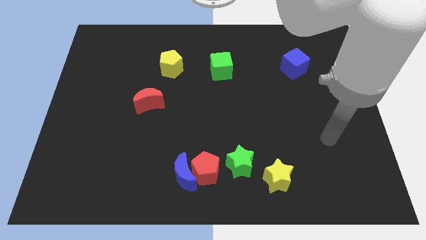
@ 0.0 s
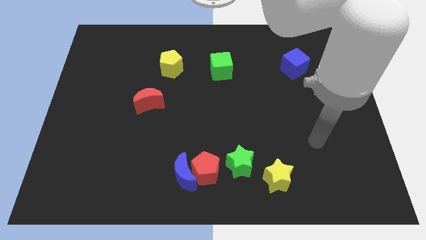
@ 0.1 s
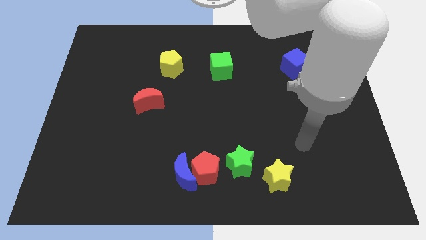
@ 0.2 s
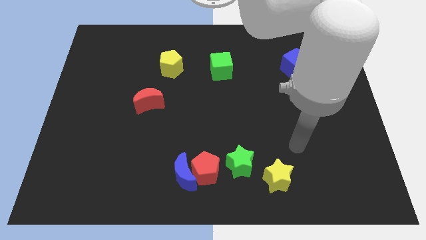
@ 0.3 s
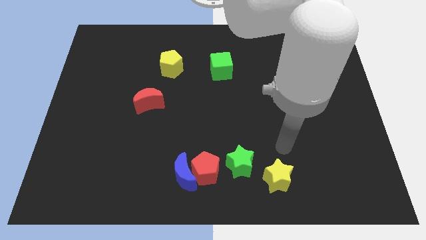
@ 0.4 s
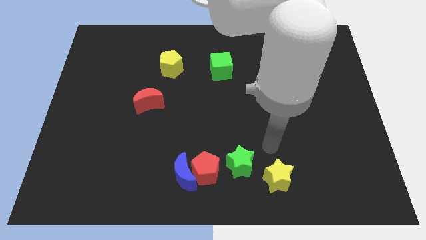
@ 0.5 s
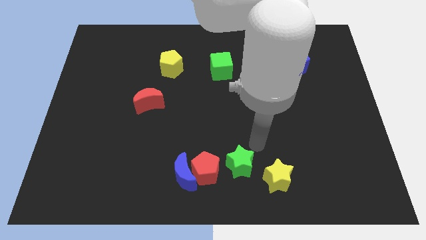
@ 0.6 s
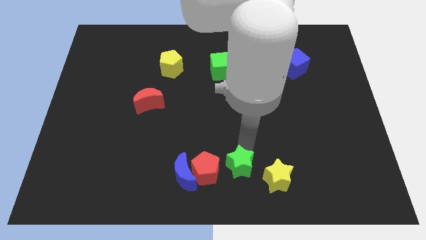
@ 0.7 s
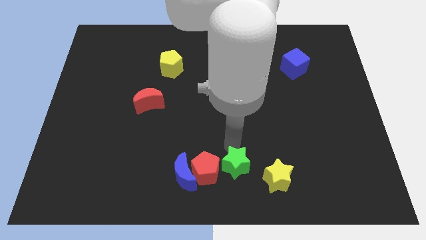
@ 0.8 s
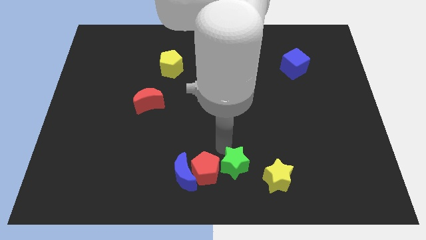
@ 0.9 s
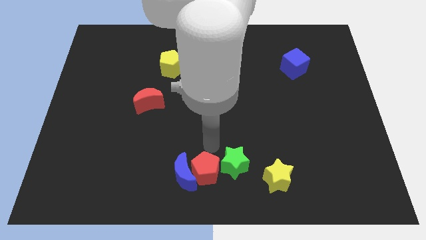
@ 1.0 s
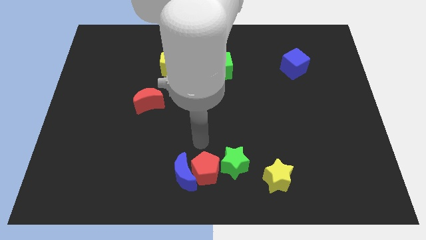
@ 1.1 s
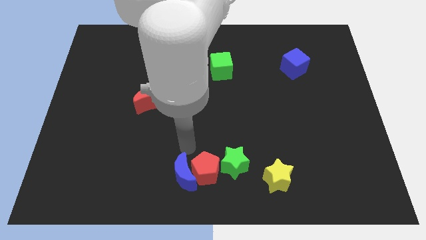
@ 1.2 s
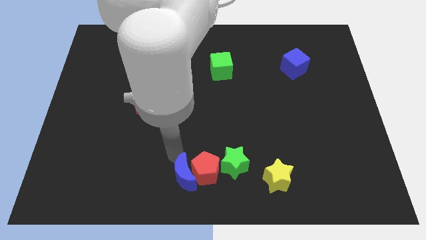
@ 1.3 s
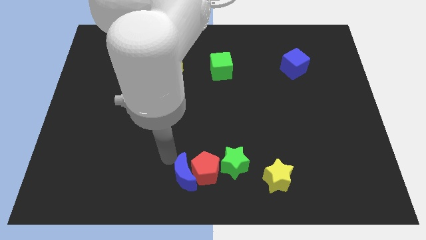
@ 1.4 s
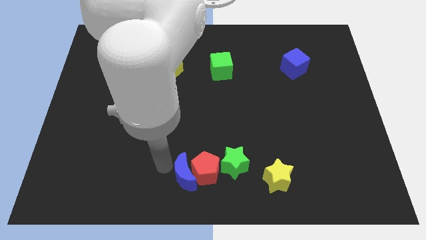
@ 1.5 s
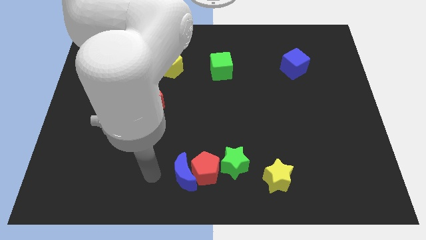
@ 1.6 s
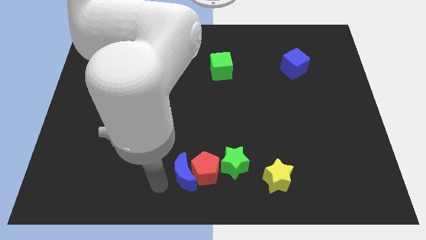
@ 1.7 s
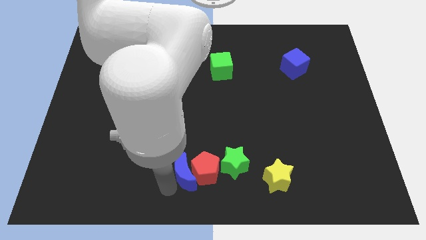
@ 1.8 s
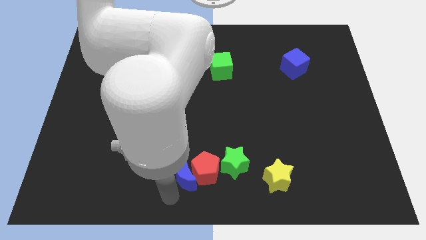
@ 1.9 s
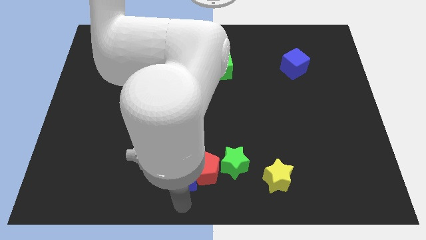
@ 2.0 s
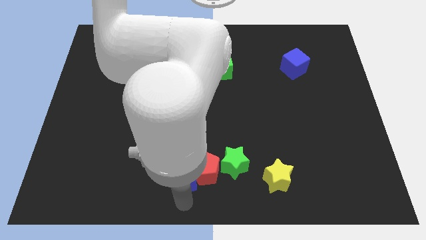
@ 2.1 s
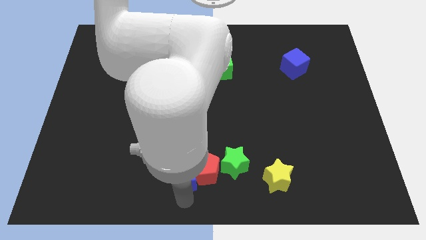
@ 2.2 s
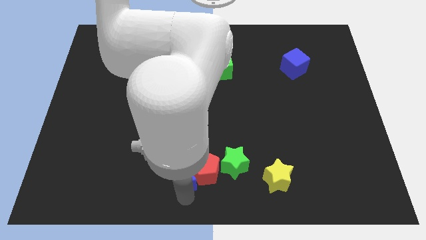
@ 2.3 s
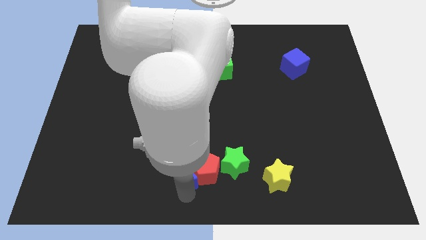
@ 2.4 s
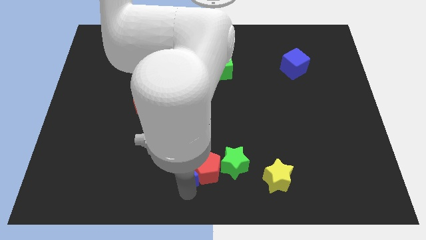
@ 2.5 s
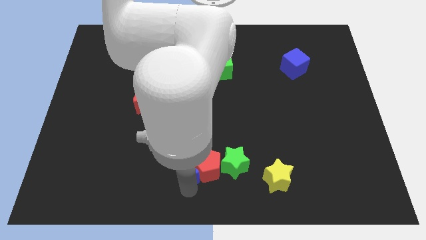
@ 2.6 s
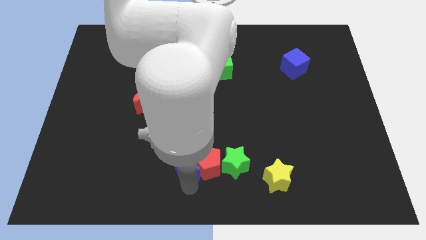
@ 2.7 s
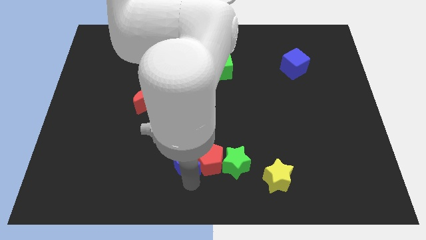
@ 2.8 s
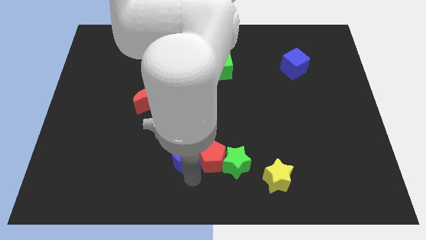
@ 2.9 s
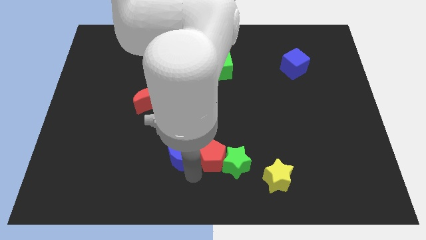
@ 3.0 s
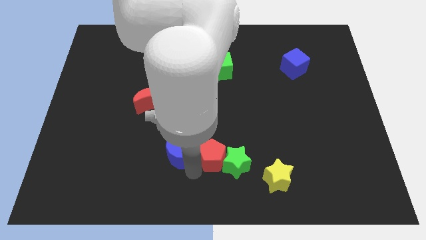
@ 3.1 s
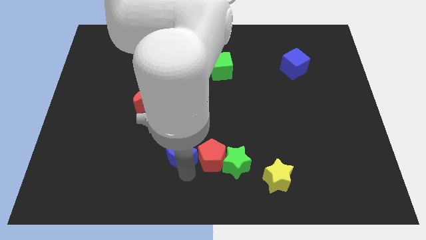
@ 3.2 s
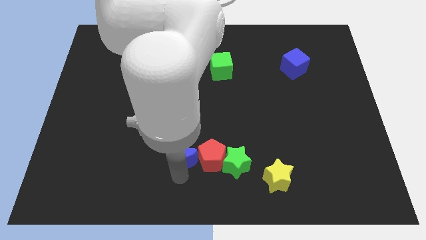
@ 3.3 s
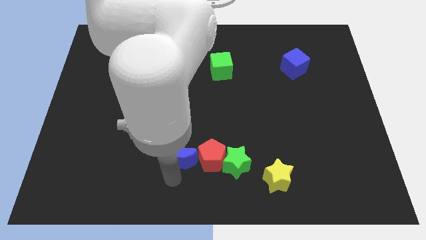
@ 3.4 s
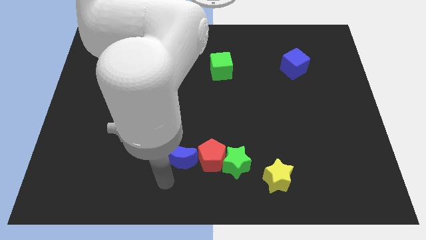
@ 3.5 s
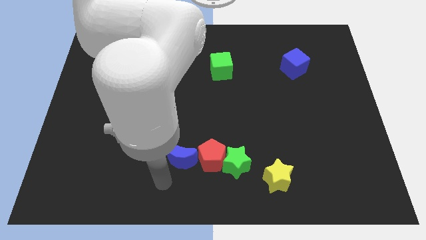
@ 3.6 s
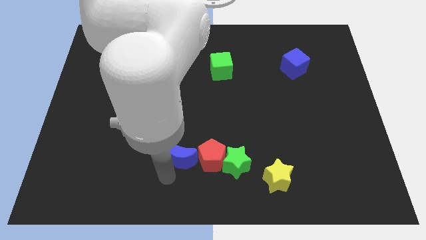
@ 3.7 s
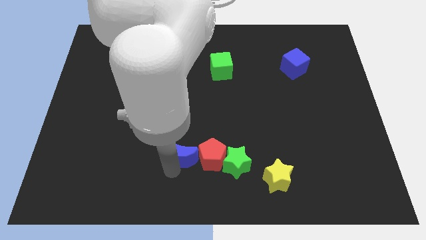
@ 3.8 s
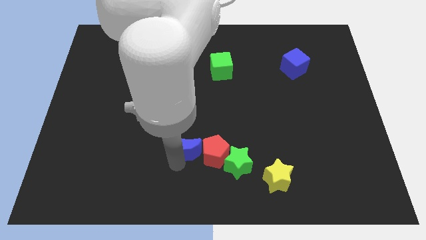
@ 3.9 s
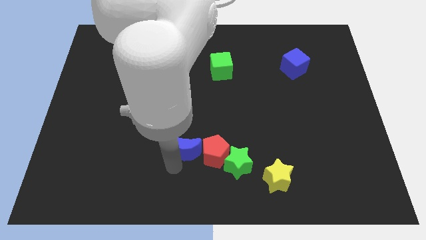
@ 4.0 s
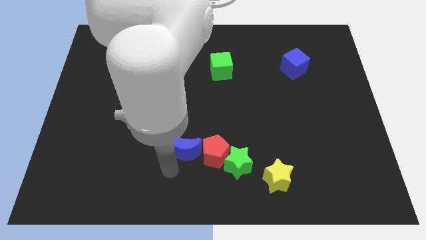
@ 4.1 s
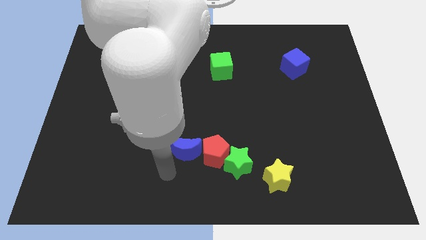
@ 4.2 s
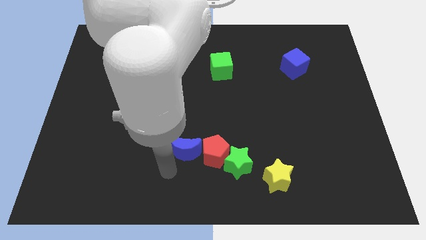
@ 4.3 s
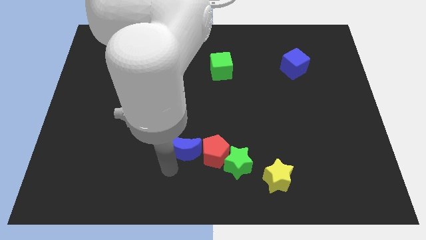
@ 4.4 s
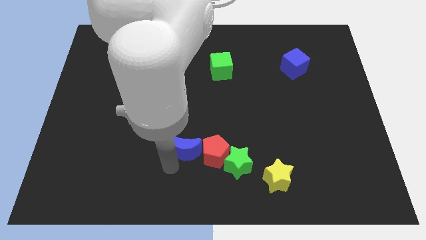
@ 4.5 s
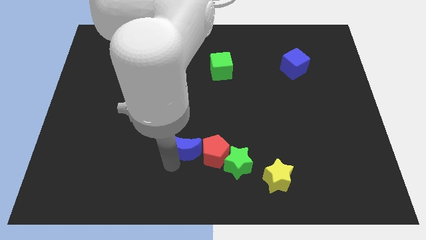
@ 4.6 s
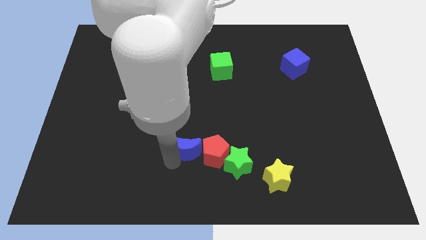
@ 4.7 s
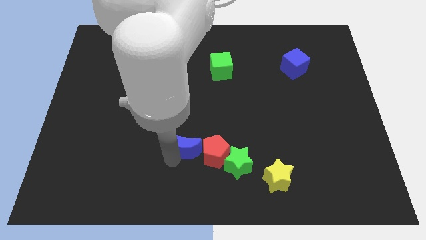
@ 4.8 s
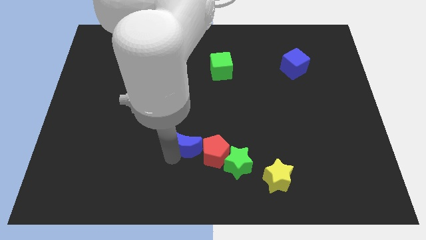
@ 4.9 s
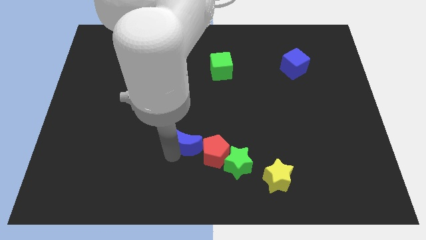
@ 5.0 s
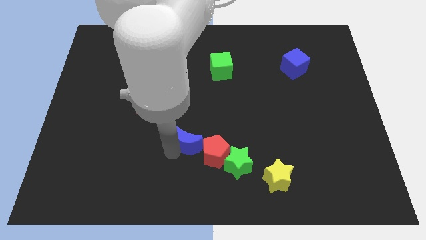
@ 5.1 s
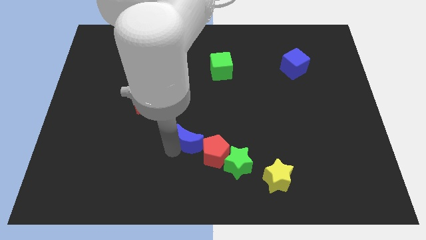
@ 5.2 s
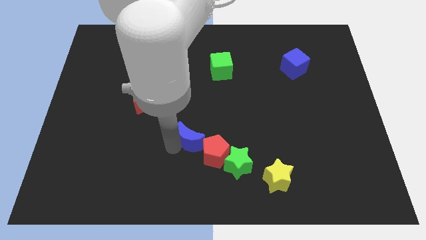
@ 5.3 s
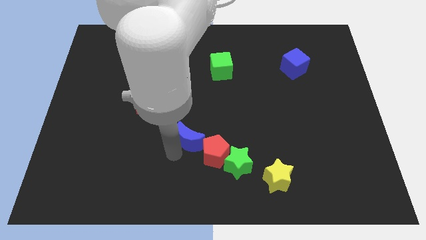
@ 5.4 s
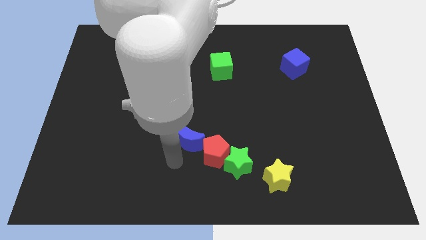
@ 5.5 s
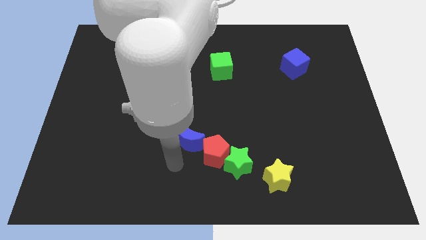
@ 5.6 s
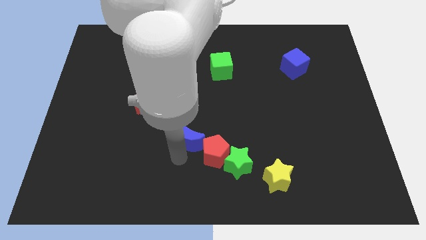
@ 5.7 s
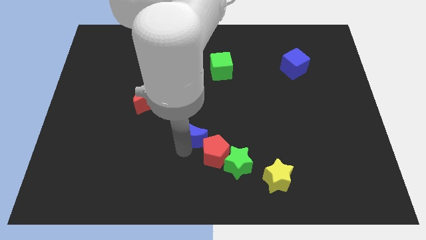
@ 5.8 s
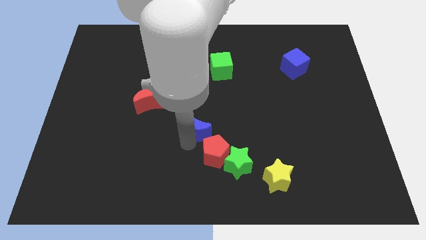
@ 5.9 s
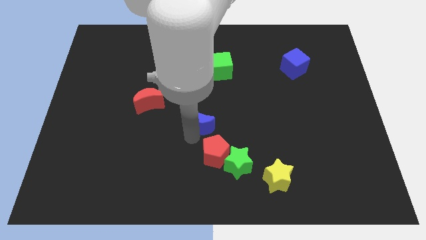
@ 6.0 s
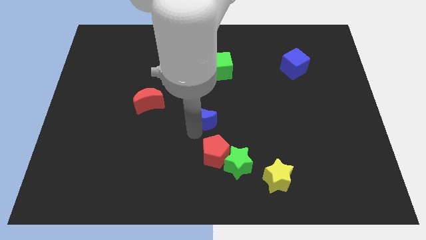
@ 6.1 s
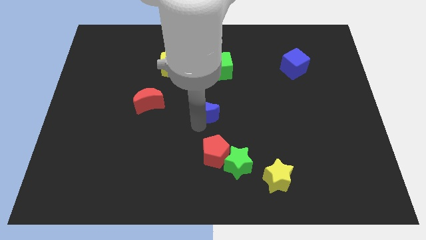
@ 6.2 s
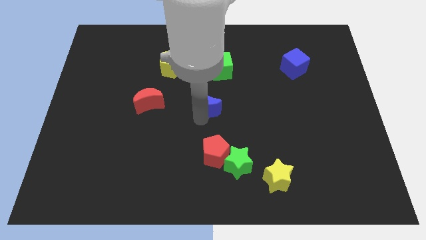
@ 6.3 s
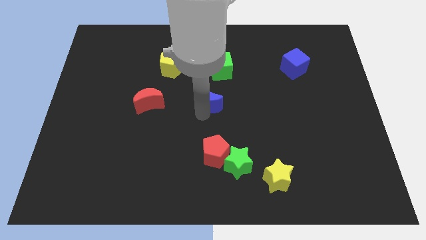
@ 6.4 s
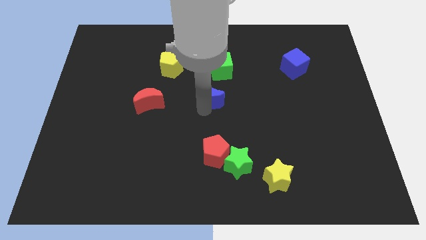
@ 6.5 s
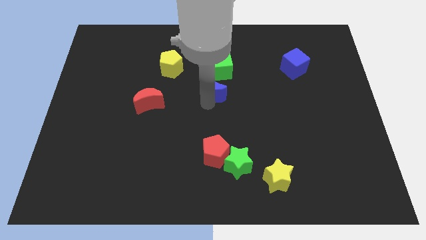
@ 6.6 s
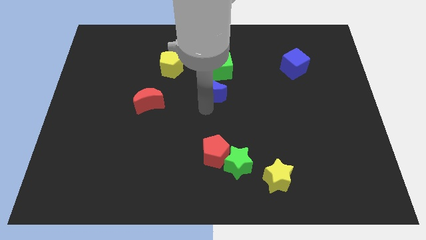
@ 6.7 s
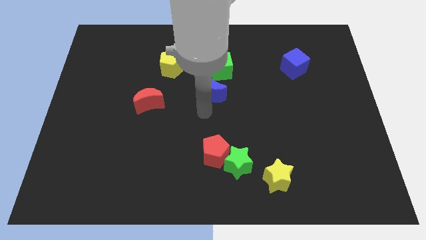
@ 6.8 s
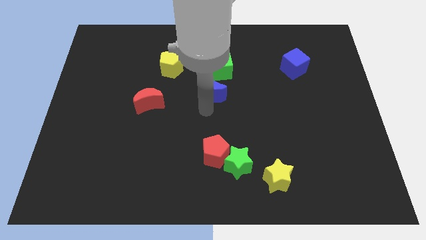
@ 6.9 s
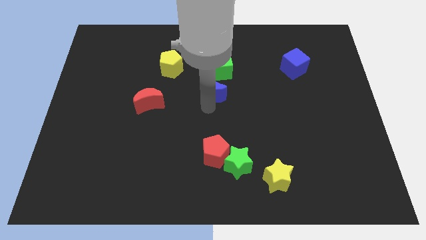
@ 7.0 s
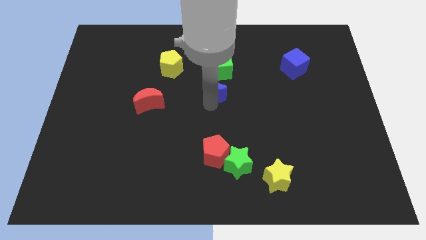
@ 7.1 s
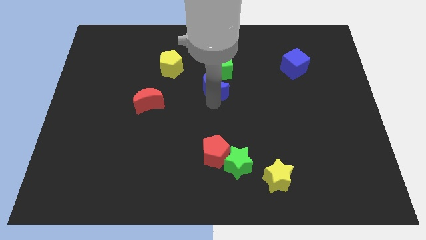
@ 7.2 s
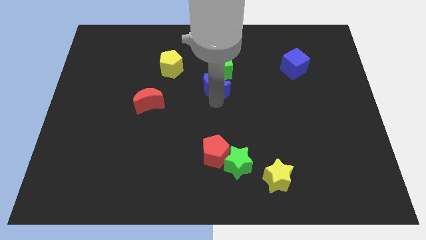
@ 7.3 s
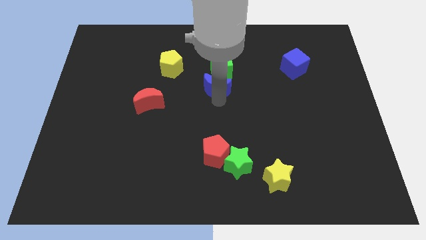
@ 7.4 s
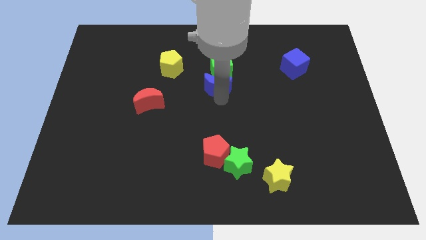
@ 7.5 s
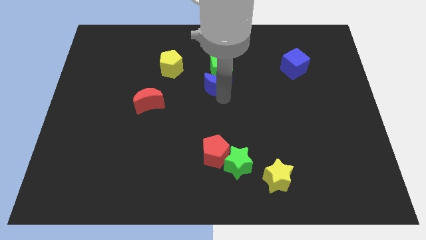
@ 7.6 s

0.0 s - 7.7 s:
put the blue moon close to the green cube

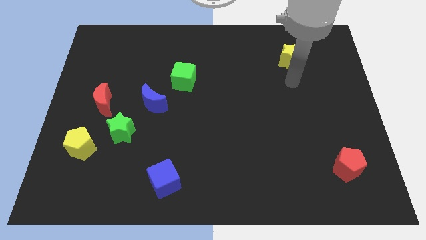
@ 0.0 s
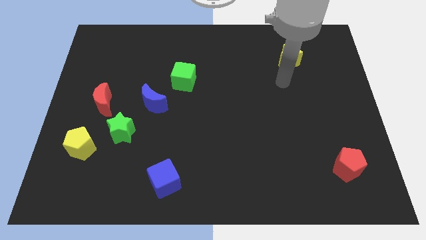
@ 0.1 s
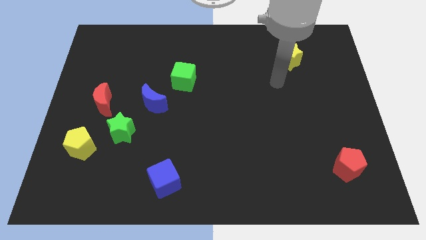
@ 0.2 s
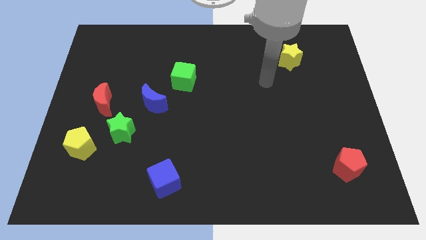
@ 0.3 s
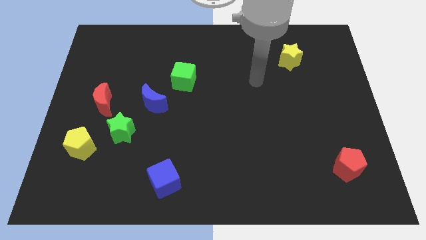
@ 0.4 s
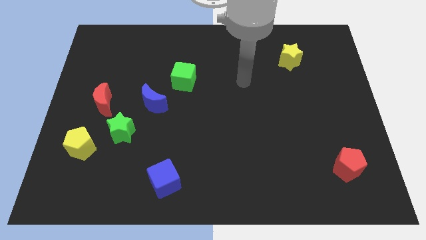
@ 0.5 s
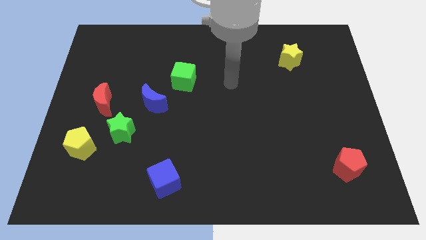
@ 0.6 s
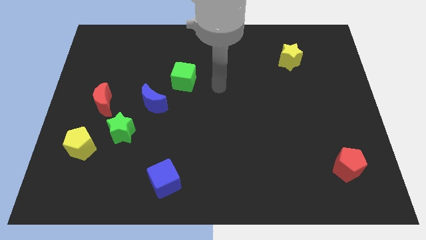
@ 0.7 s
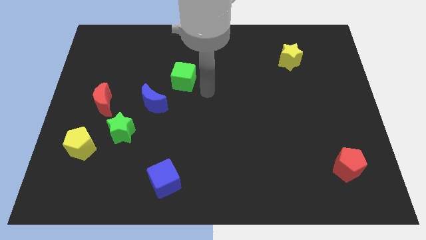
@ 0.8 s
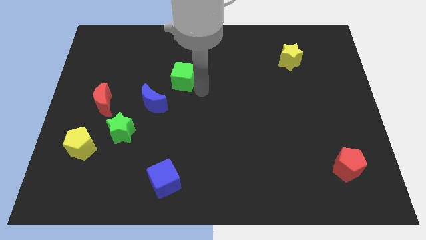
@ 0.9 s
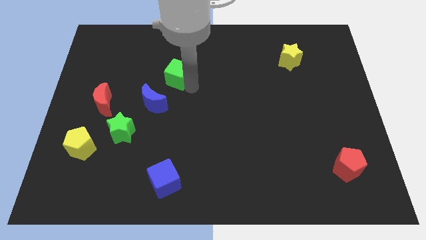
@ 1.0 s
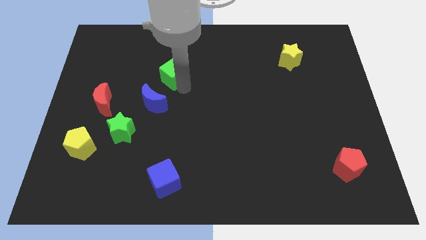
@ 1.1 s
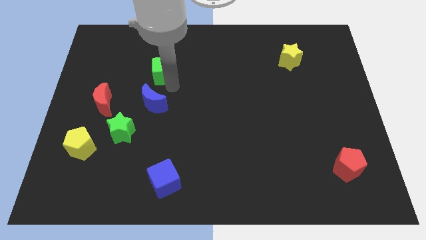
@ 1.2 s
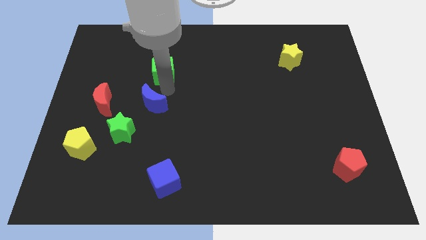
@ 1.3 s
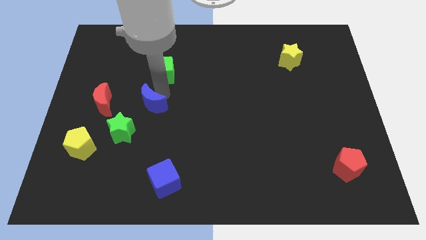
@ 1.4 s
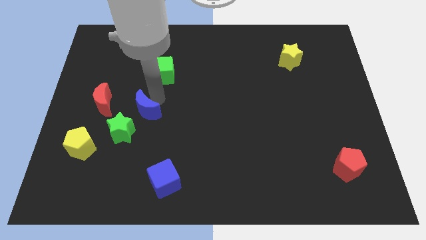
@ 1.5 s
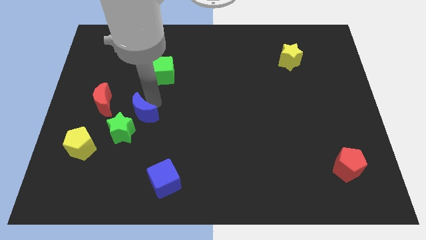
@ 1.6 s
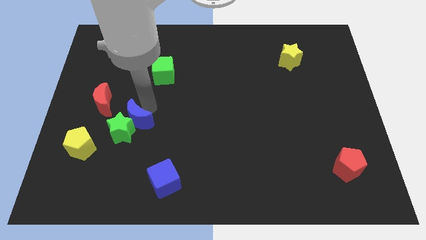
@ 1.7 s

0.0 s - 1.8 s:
put the blue moon towards the green star
